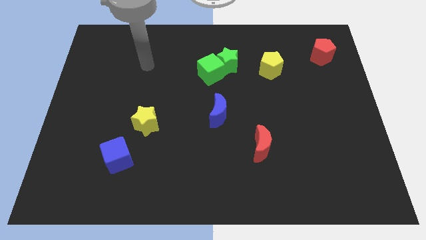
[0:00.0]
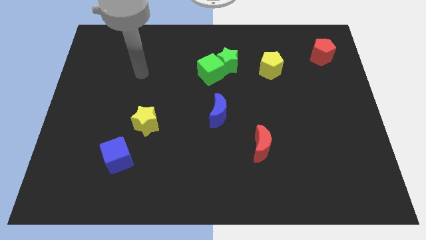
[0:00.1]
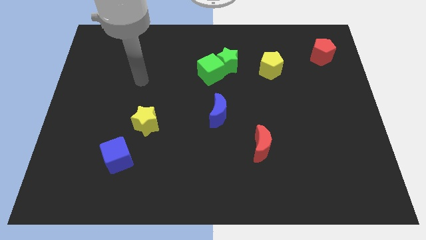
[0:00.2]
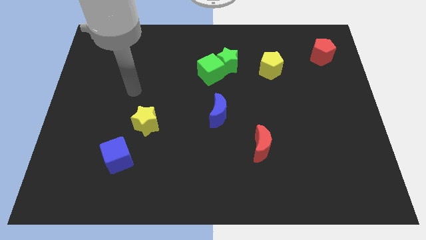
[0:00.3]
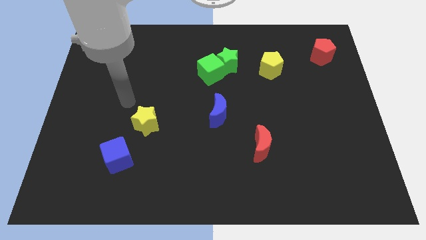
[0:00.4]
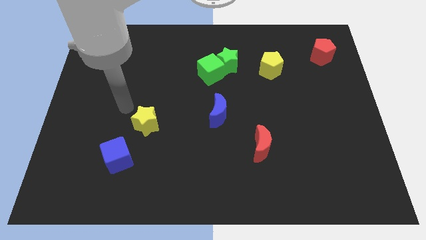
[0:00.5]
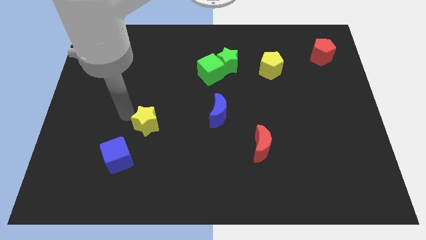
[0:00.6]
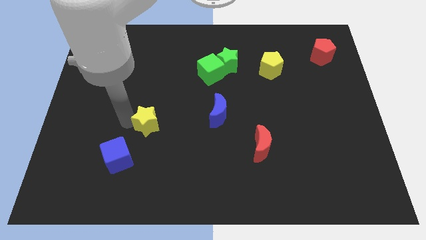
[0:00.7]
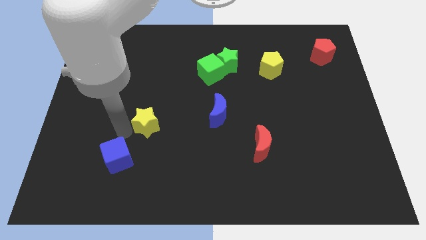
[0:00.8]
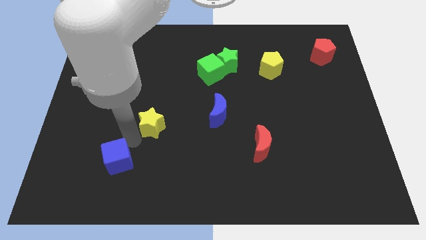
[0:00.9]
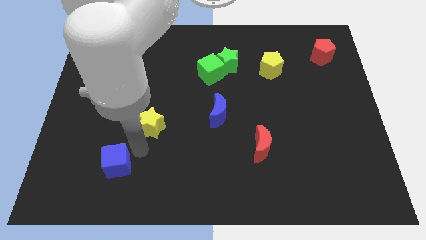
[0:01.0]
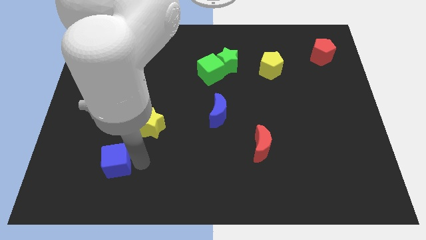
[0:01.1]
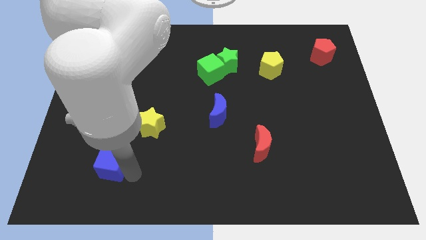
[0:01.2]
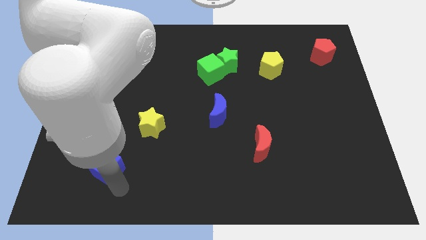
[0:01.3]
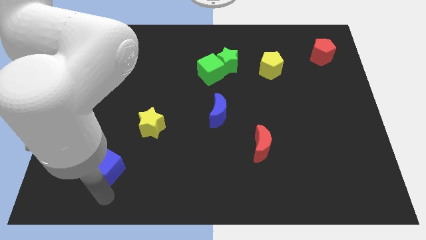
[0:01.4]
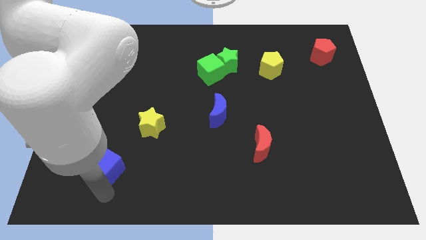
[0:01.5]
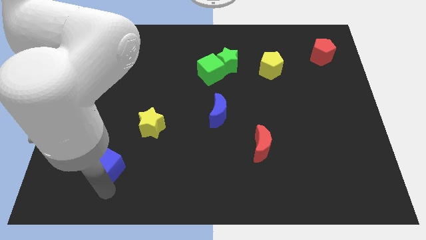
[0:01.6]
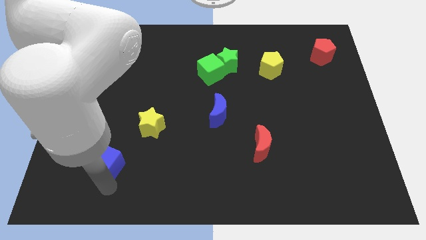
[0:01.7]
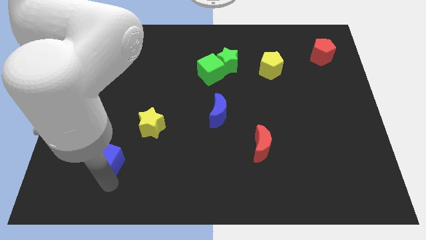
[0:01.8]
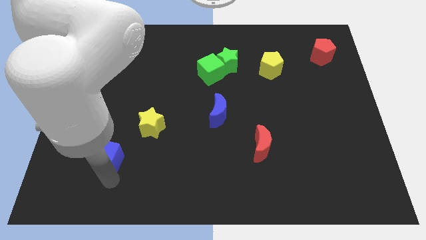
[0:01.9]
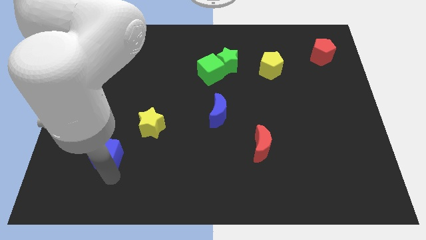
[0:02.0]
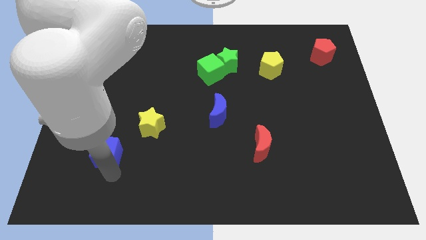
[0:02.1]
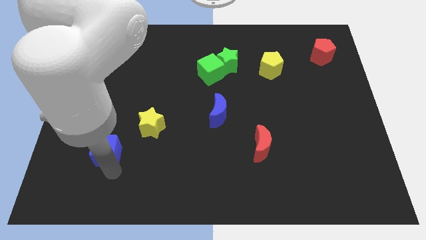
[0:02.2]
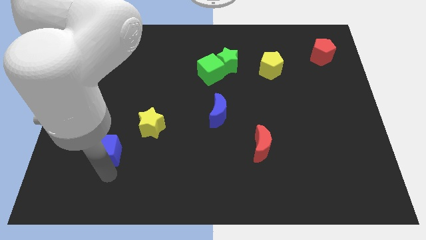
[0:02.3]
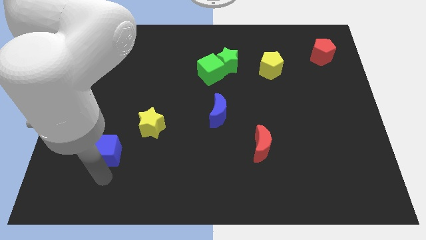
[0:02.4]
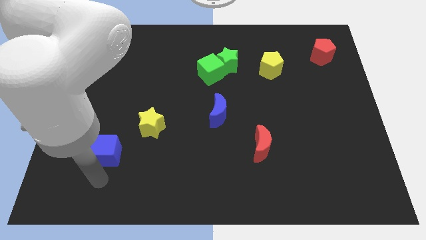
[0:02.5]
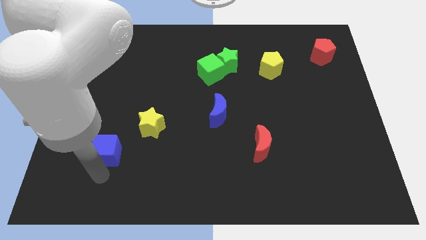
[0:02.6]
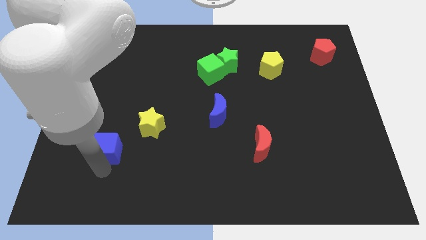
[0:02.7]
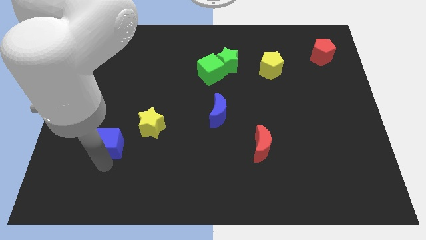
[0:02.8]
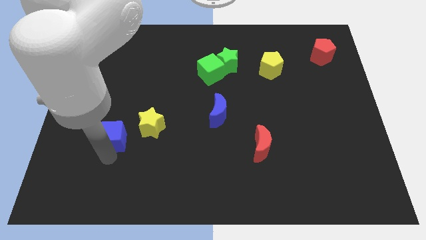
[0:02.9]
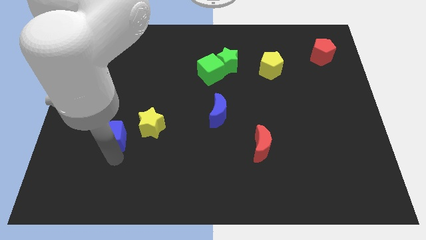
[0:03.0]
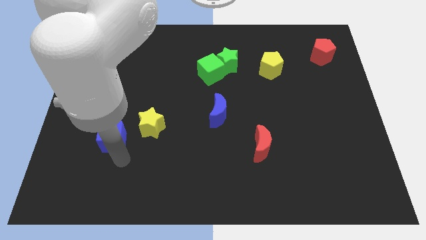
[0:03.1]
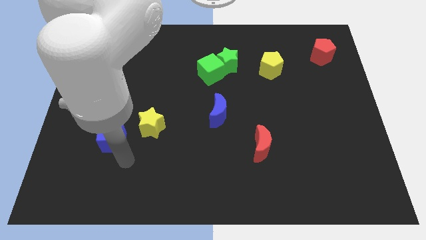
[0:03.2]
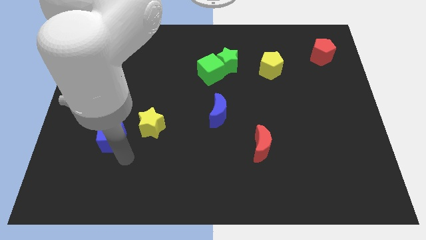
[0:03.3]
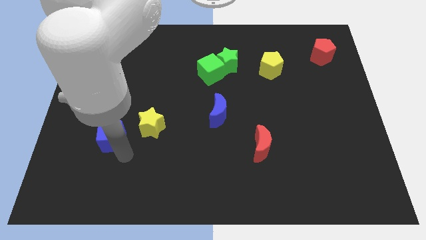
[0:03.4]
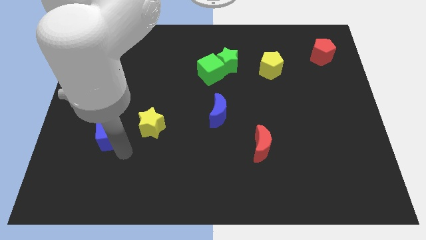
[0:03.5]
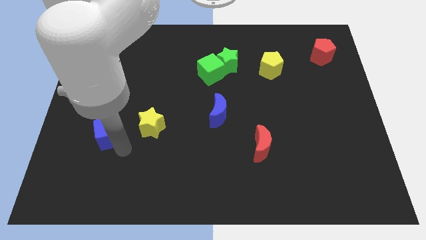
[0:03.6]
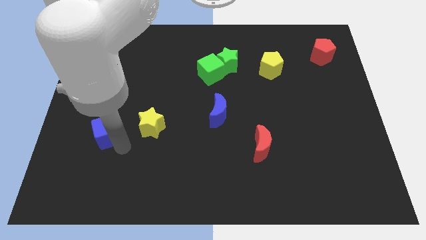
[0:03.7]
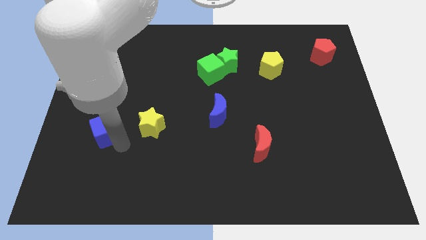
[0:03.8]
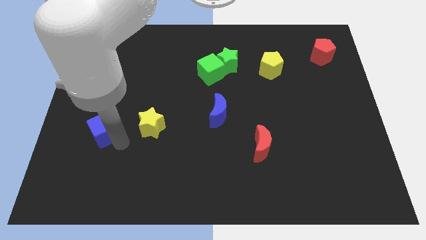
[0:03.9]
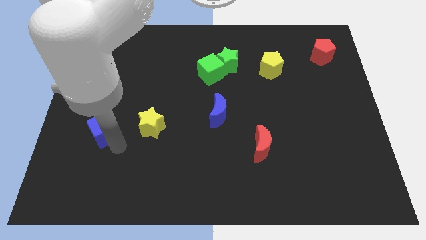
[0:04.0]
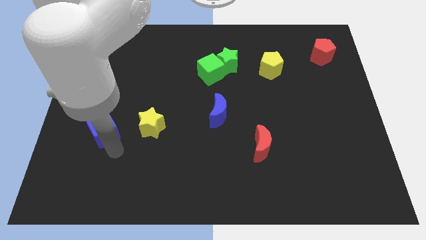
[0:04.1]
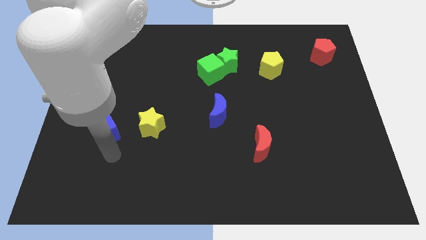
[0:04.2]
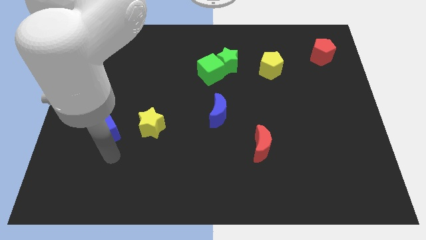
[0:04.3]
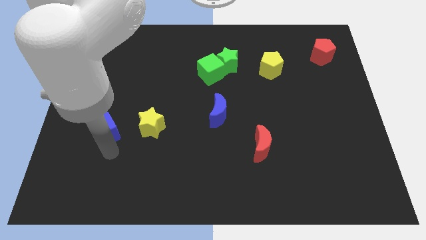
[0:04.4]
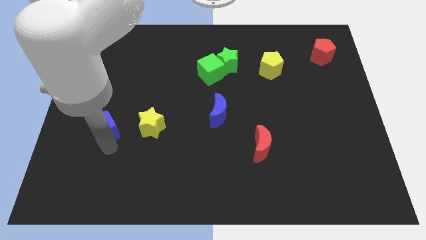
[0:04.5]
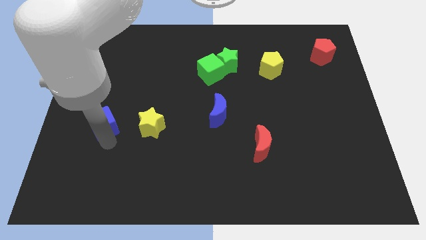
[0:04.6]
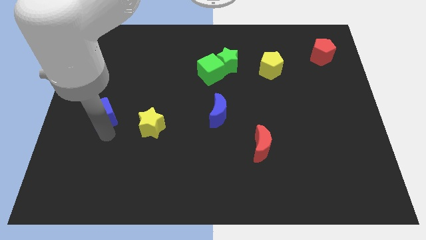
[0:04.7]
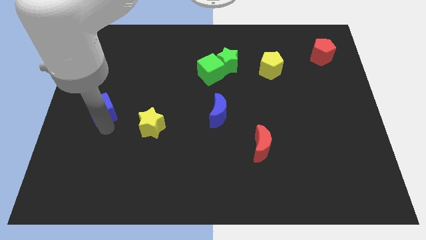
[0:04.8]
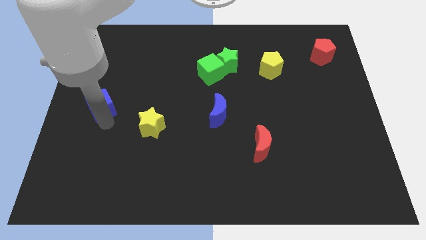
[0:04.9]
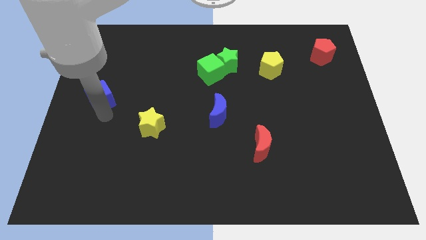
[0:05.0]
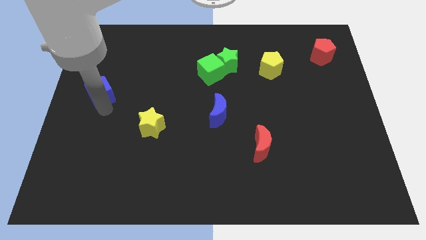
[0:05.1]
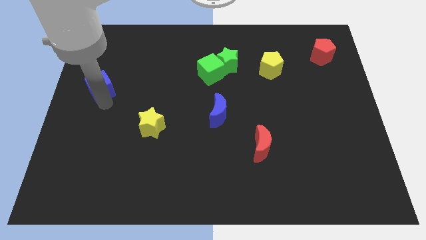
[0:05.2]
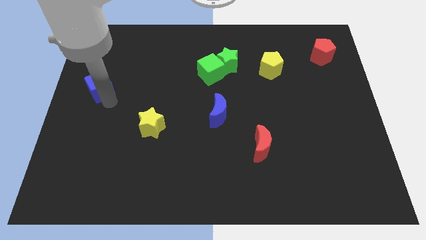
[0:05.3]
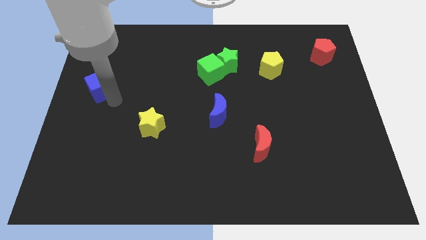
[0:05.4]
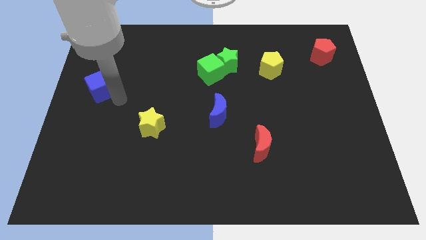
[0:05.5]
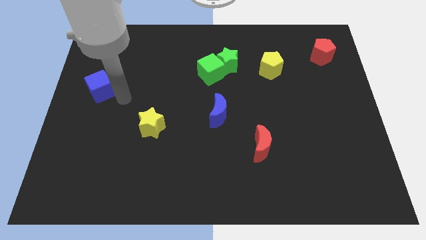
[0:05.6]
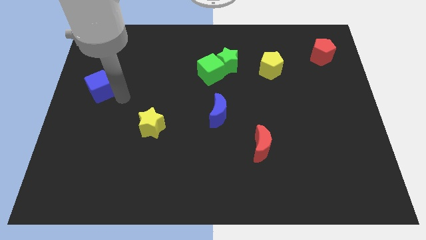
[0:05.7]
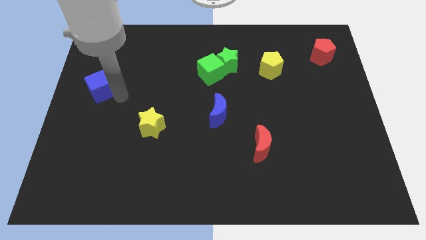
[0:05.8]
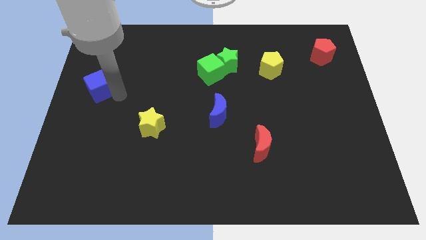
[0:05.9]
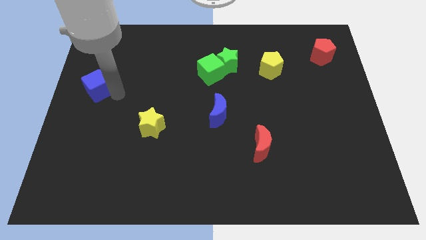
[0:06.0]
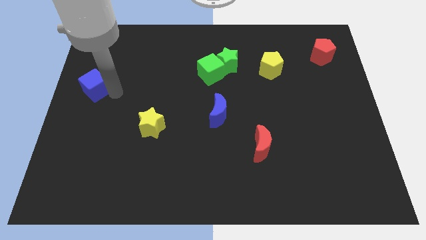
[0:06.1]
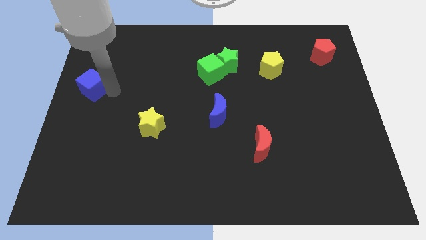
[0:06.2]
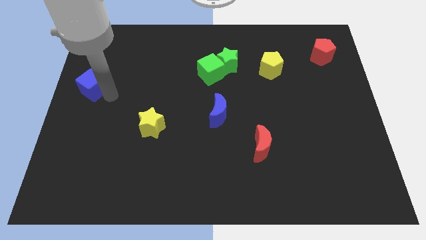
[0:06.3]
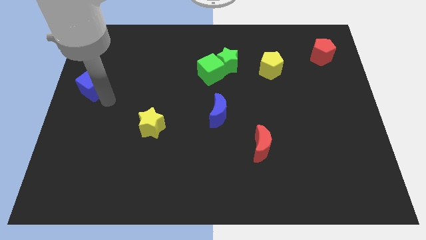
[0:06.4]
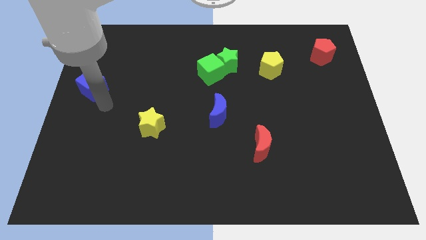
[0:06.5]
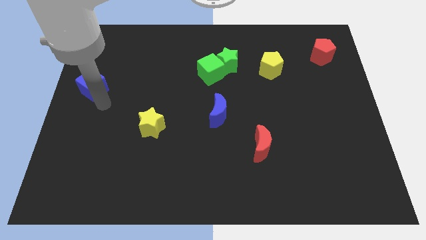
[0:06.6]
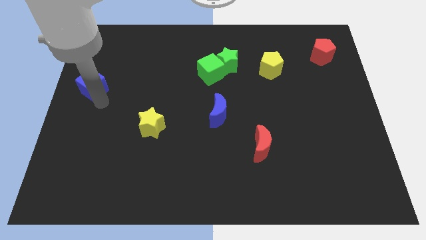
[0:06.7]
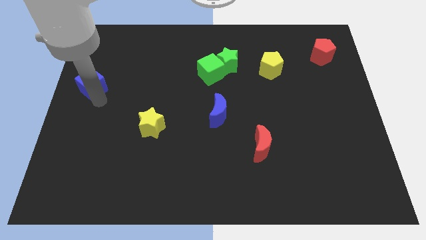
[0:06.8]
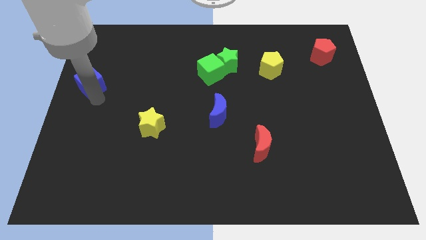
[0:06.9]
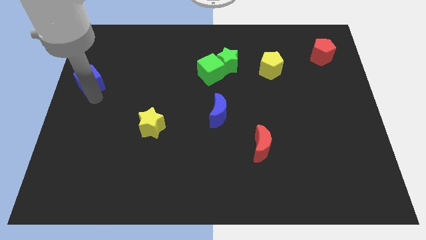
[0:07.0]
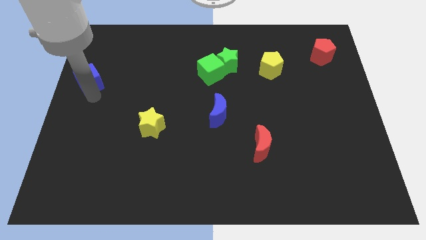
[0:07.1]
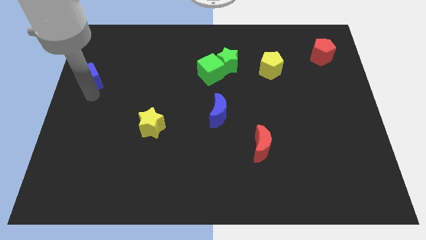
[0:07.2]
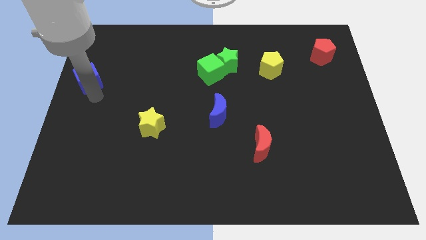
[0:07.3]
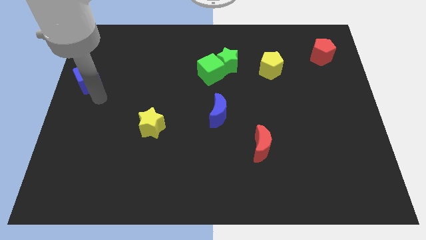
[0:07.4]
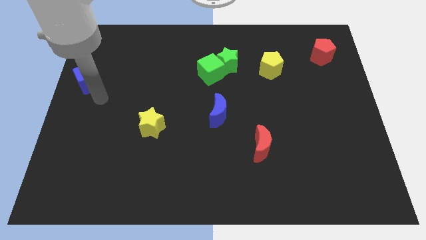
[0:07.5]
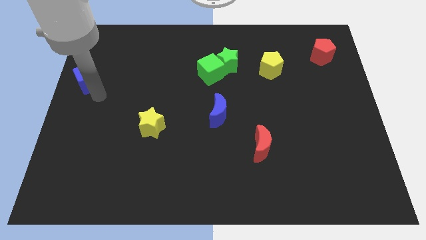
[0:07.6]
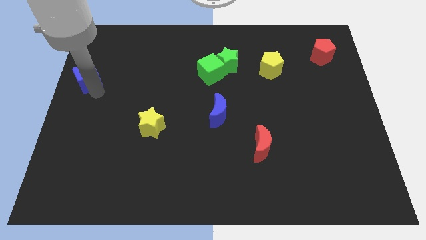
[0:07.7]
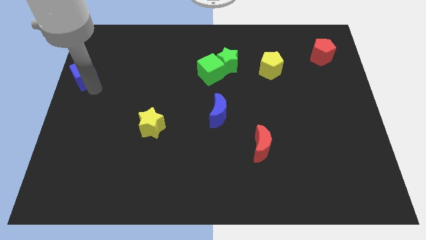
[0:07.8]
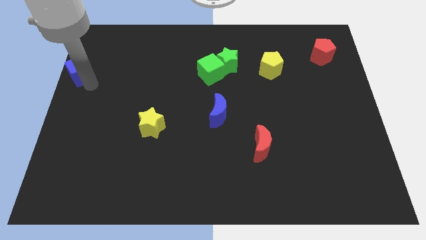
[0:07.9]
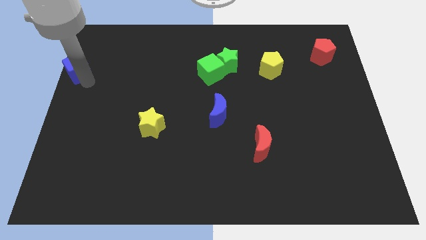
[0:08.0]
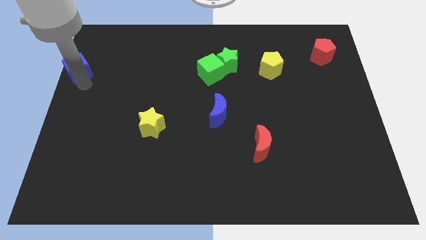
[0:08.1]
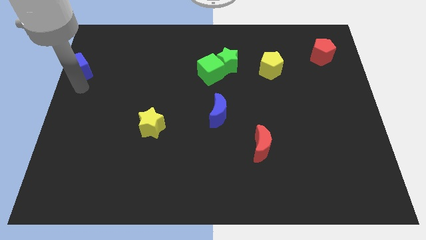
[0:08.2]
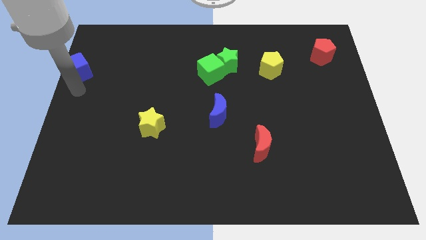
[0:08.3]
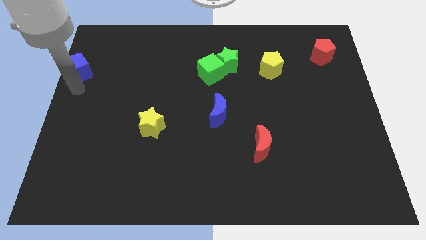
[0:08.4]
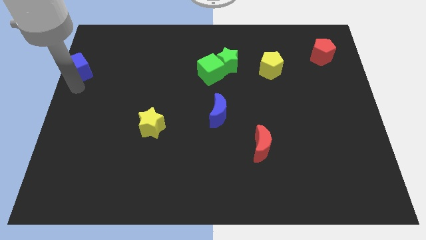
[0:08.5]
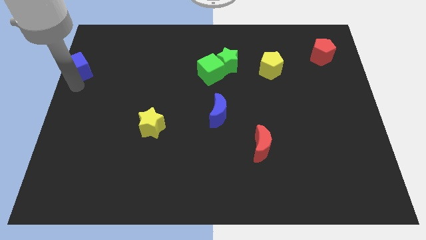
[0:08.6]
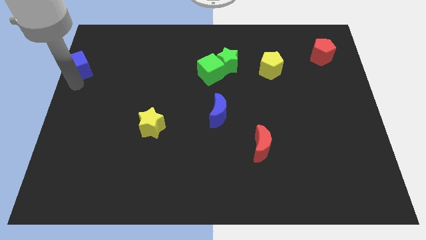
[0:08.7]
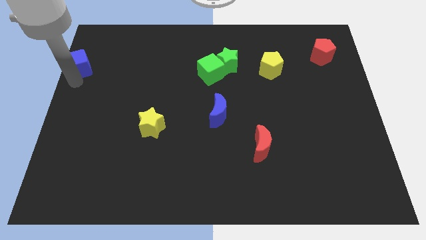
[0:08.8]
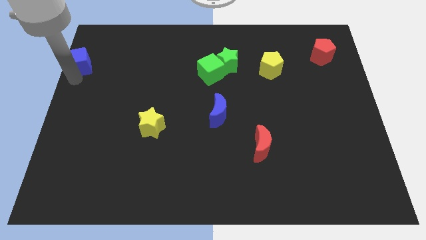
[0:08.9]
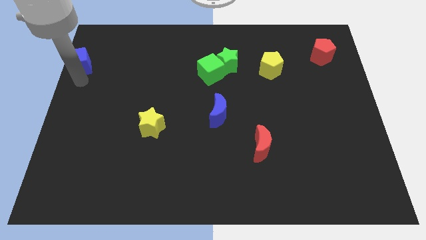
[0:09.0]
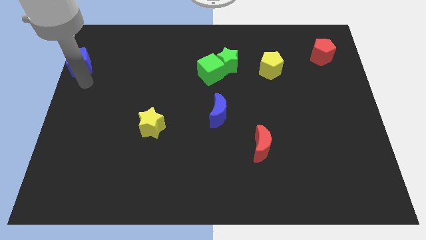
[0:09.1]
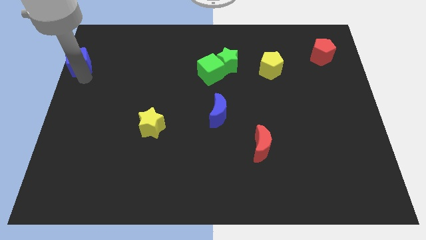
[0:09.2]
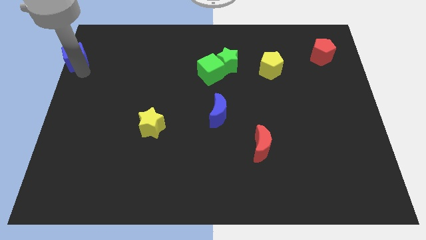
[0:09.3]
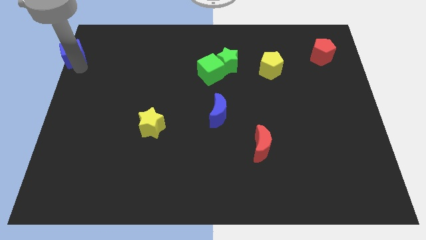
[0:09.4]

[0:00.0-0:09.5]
push the blue cube to the top left
